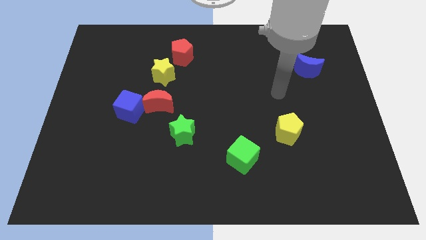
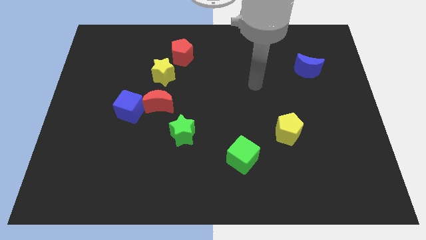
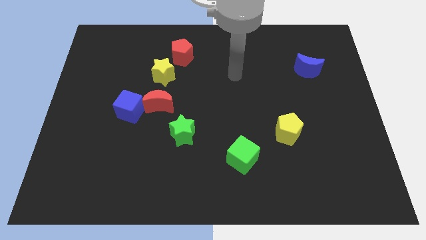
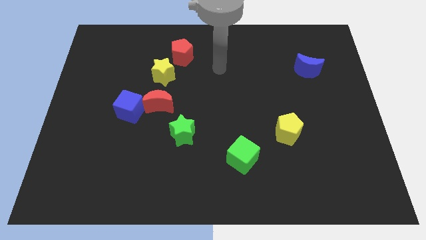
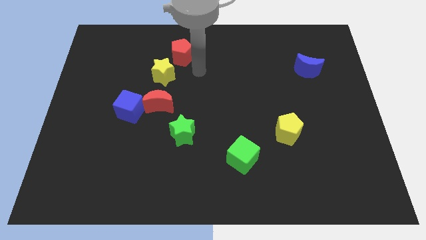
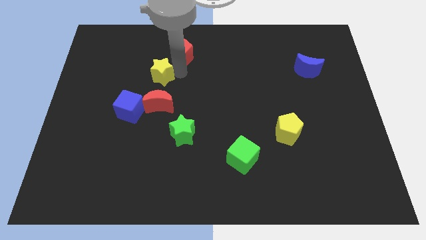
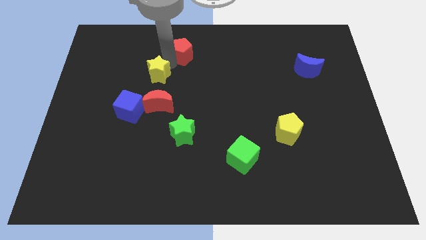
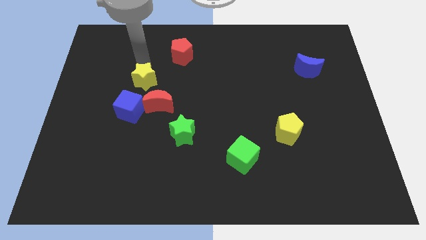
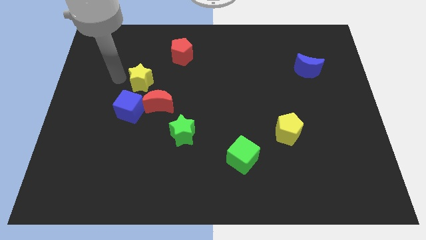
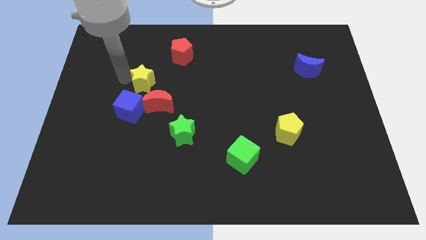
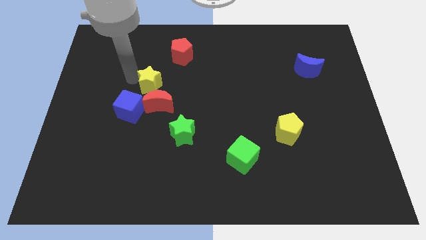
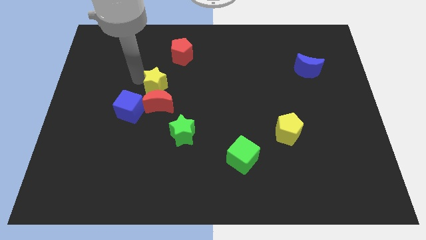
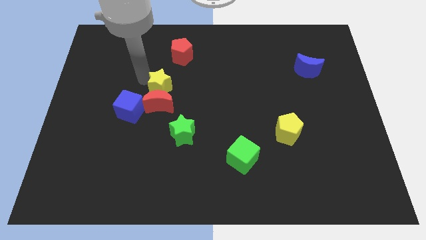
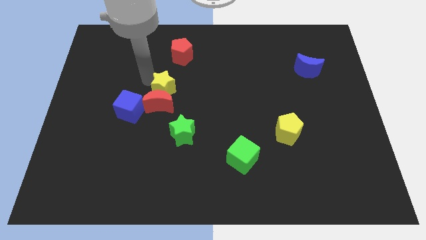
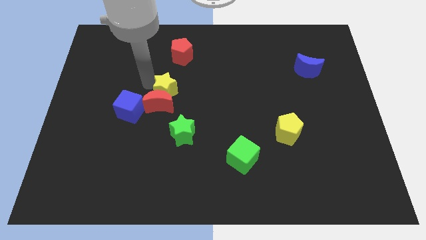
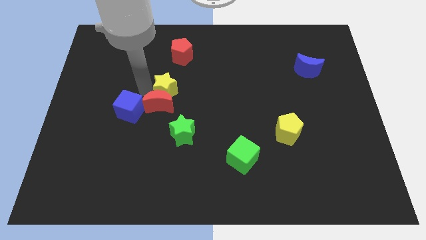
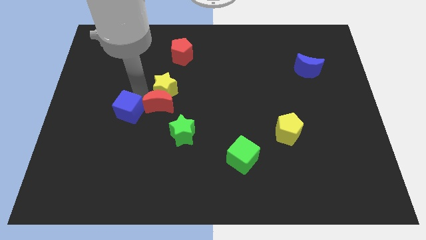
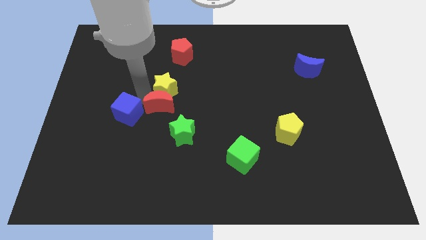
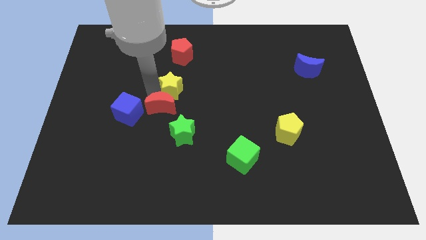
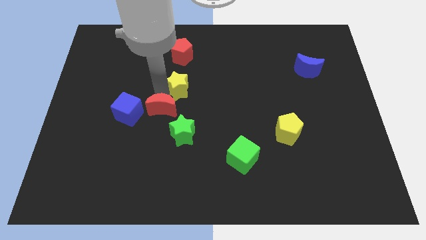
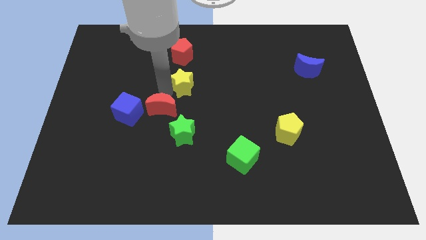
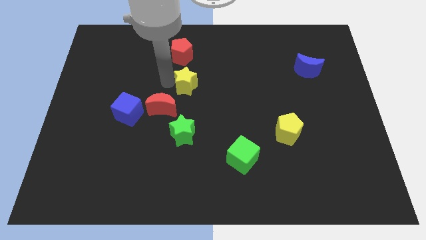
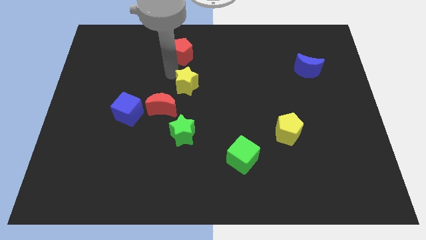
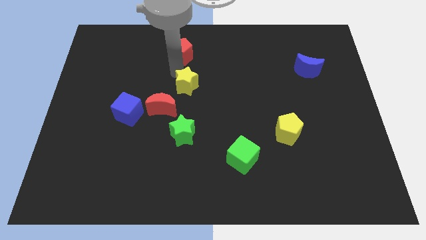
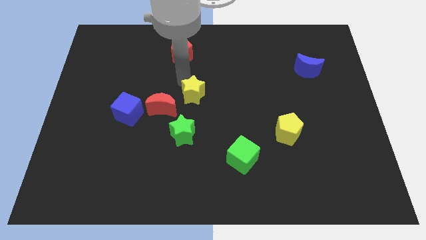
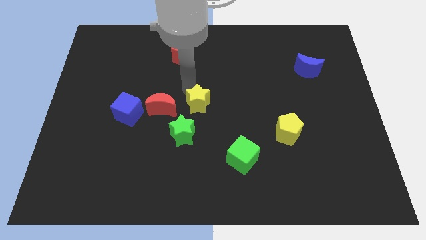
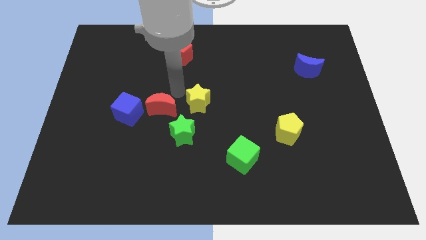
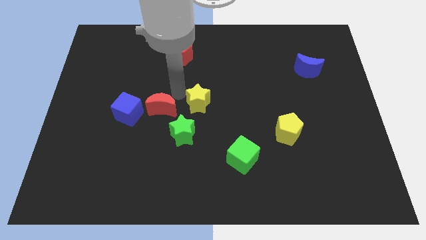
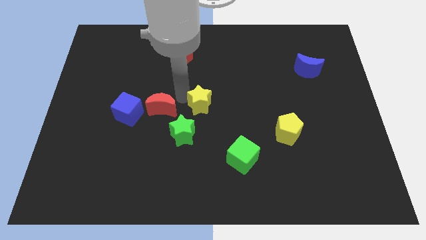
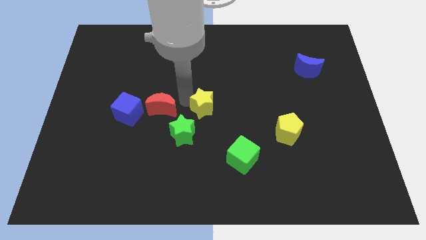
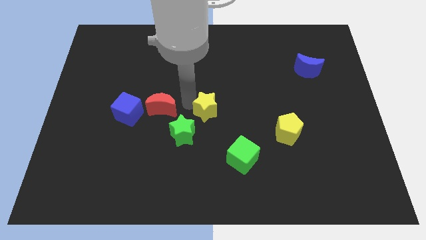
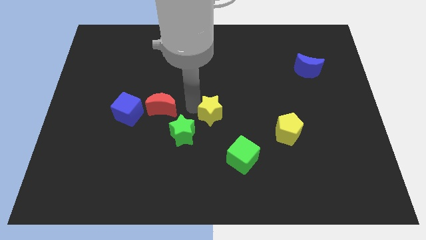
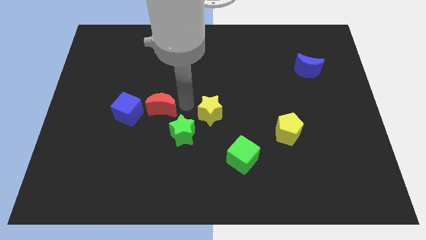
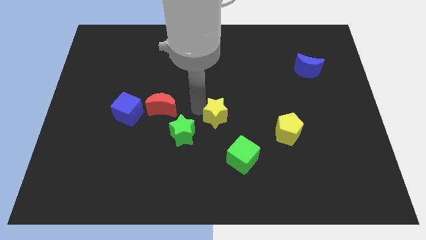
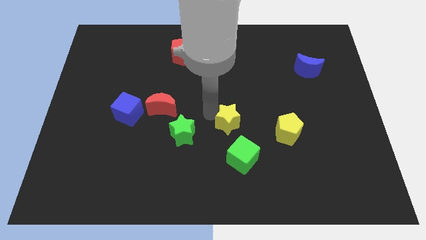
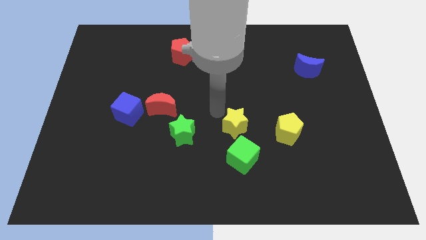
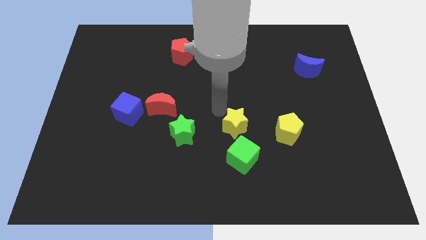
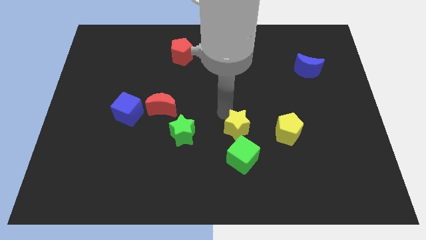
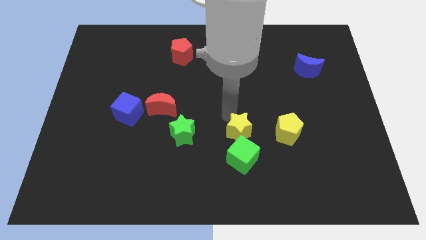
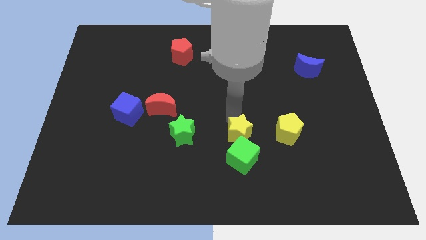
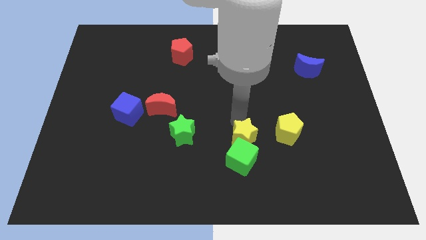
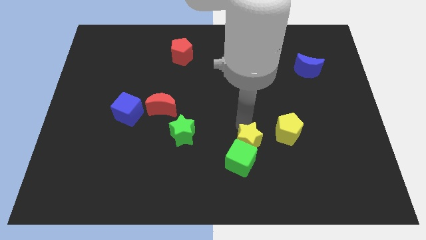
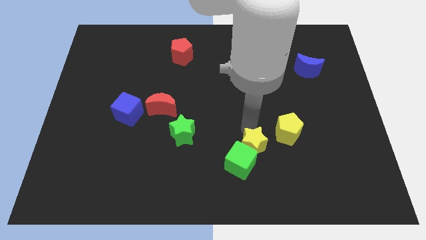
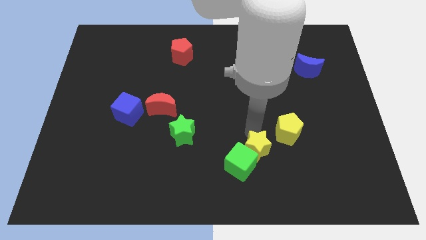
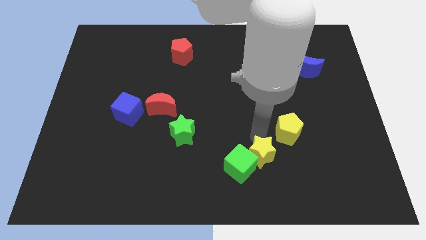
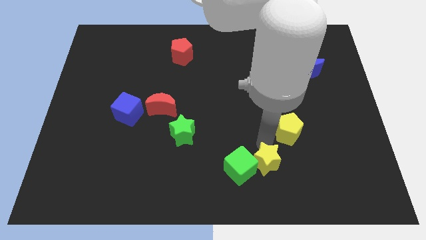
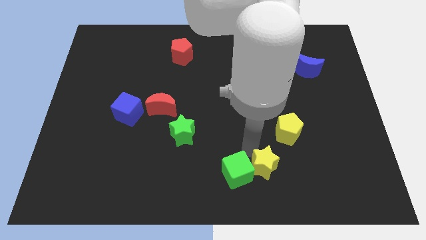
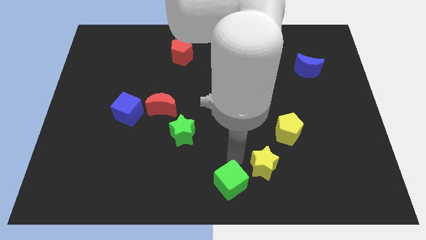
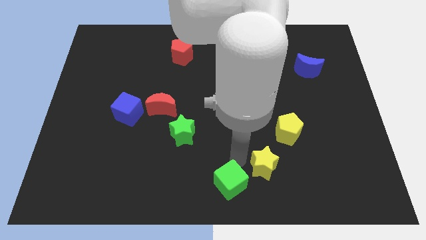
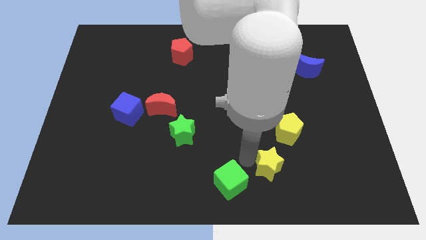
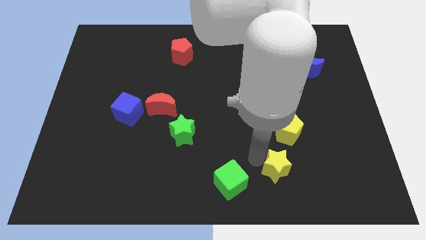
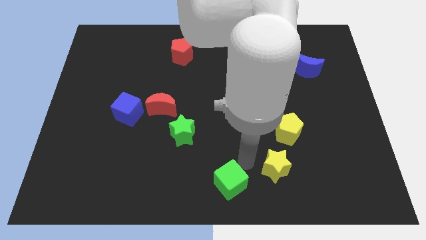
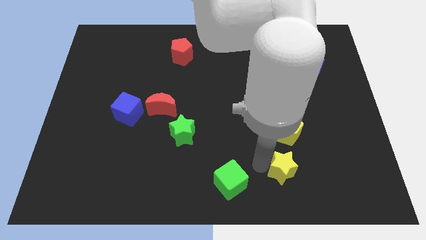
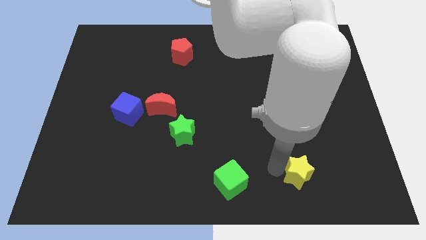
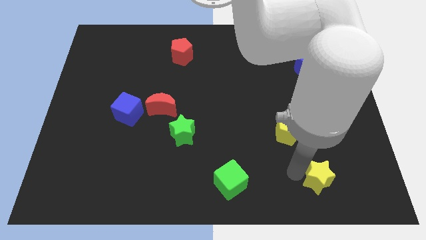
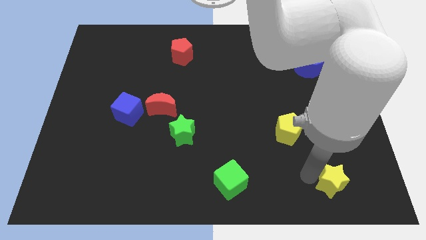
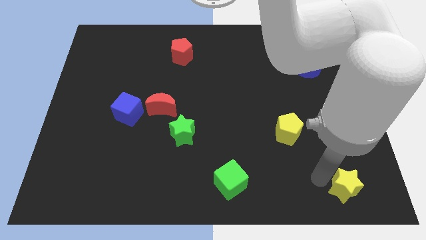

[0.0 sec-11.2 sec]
slide the yellow star to the bottom right

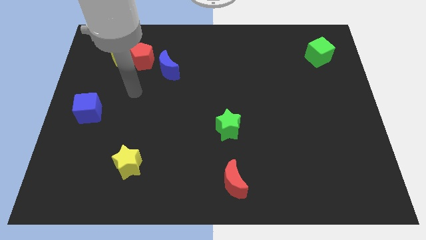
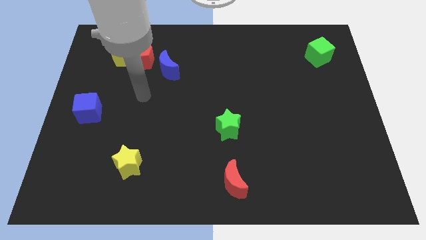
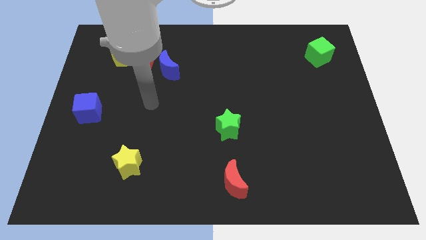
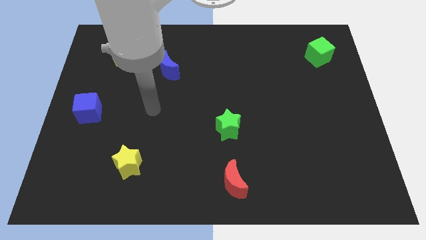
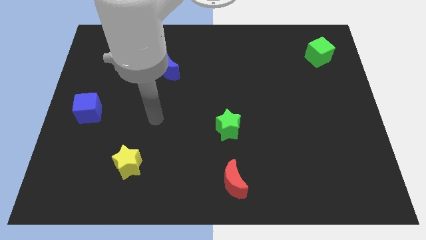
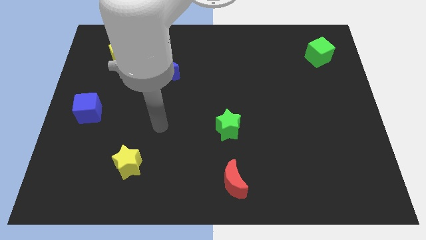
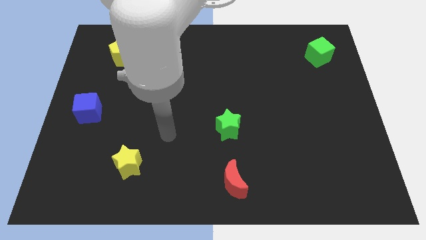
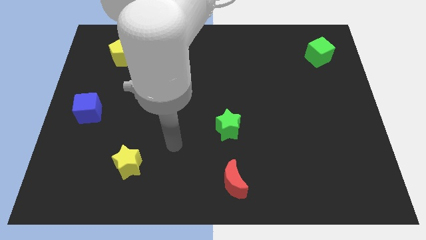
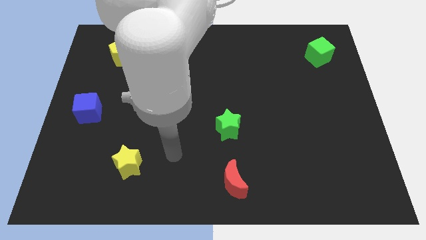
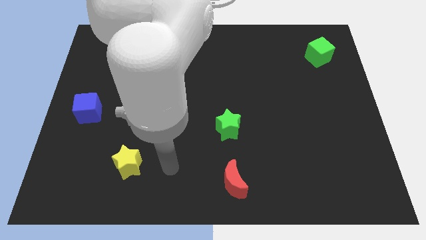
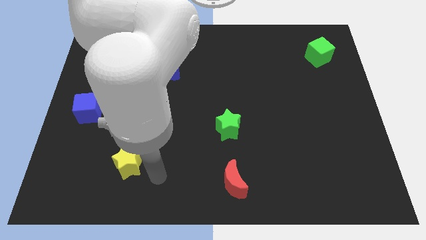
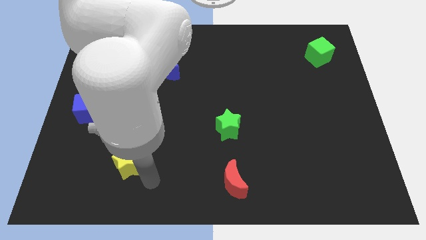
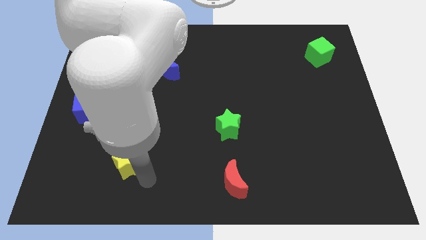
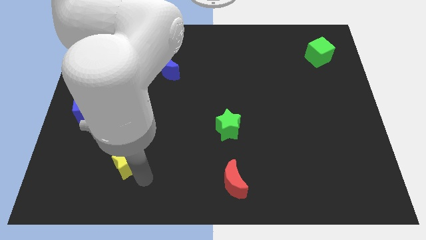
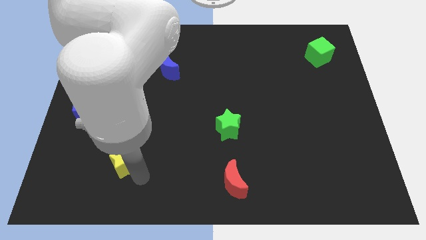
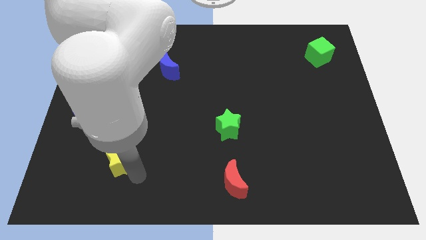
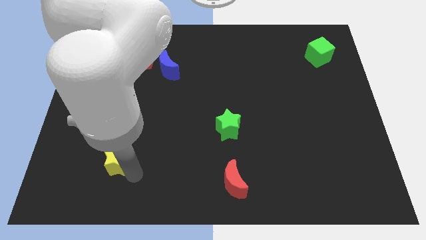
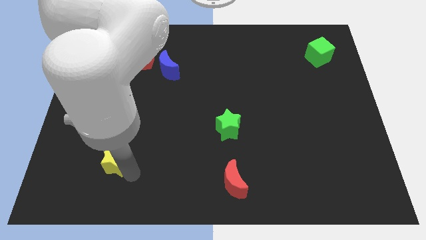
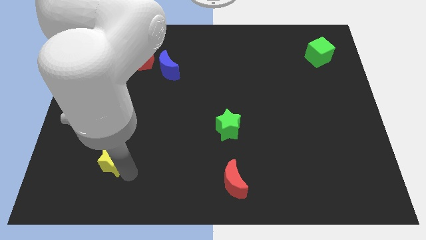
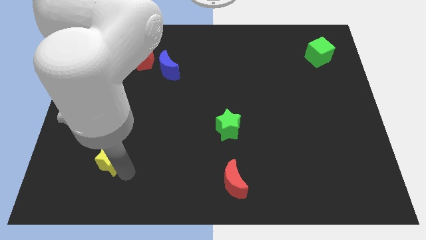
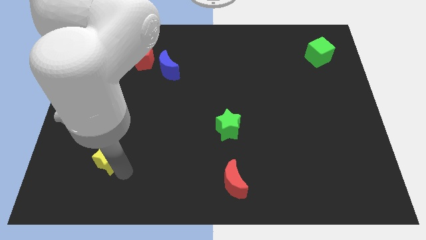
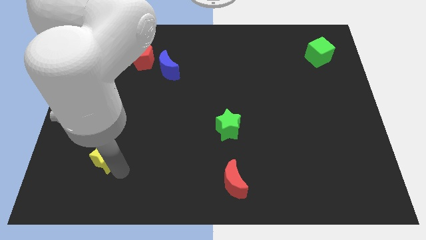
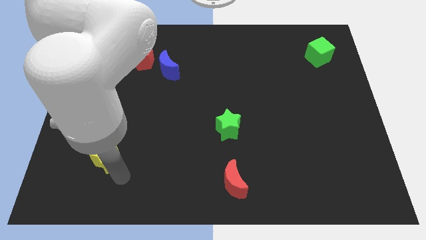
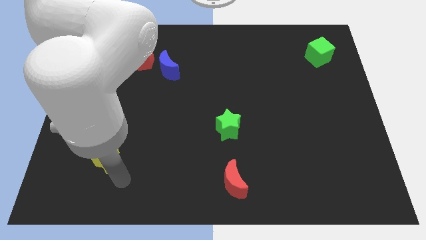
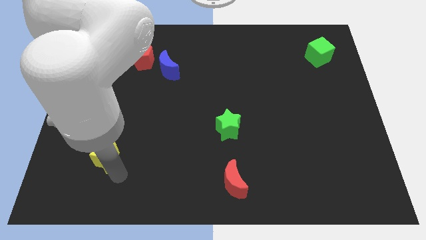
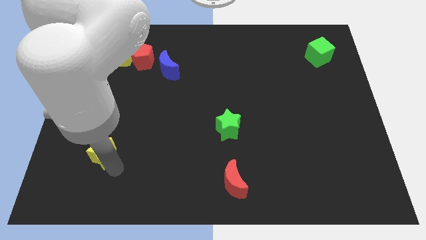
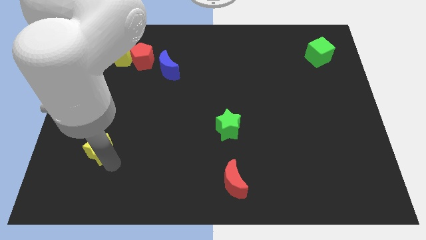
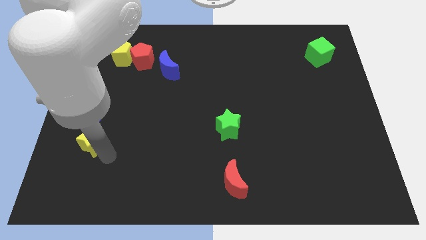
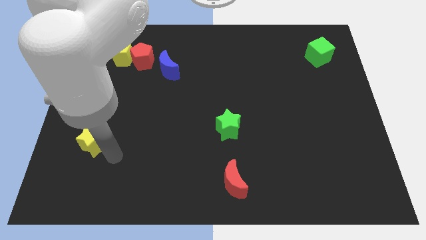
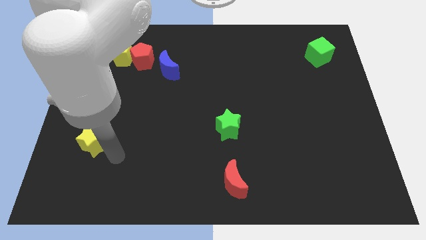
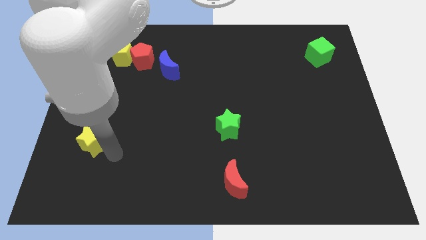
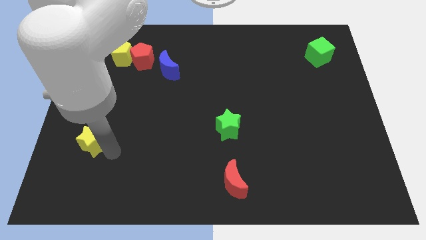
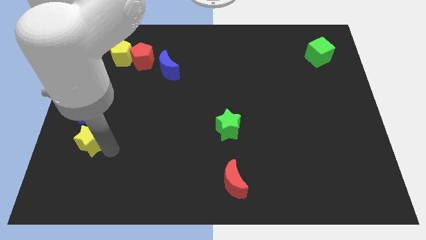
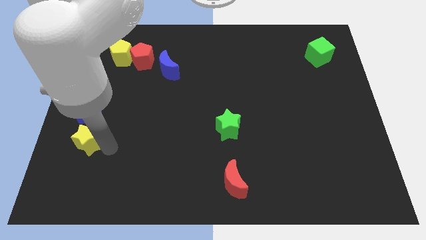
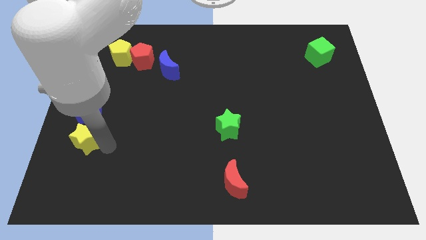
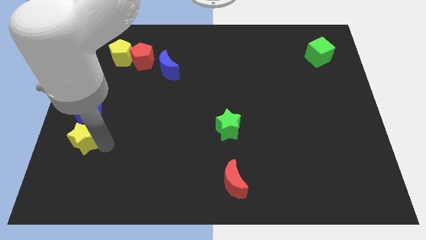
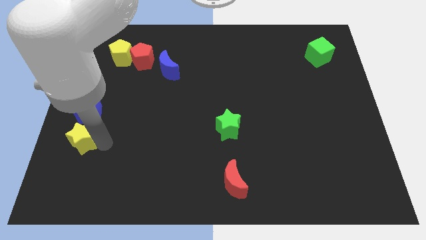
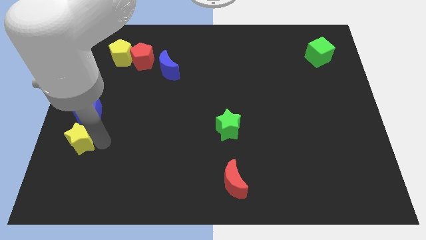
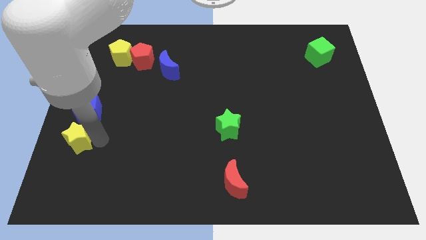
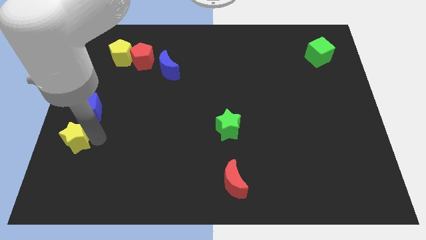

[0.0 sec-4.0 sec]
push the yellow star to the left side
